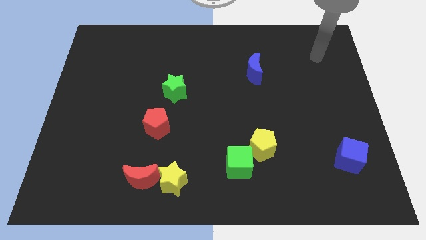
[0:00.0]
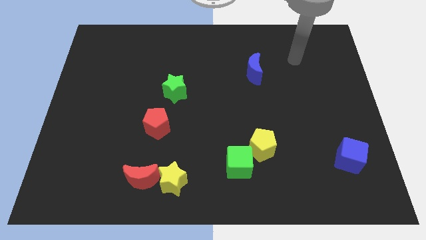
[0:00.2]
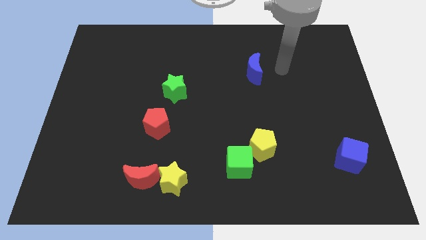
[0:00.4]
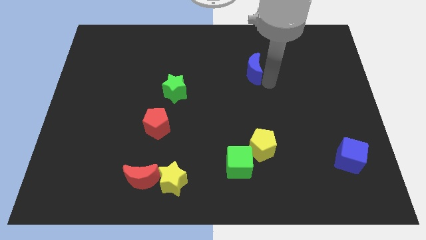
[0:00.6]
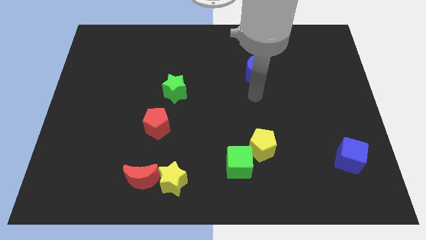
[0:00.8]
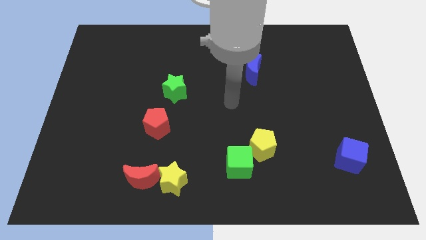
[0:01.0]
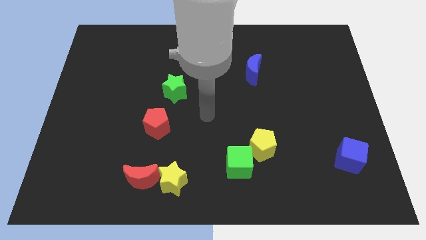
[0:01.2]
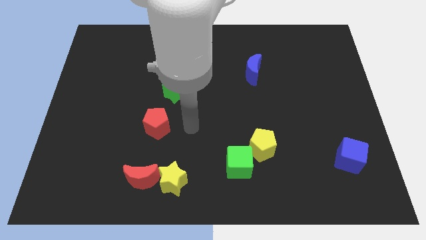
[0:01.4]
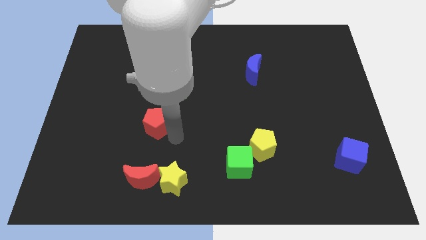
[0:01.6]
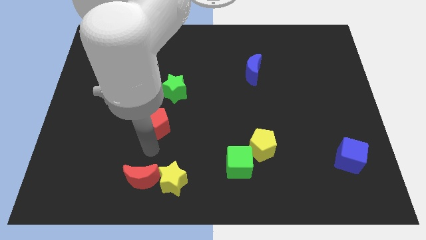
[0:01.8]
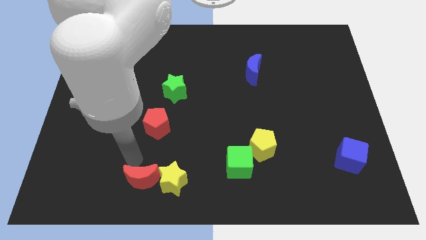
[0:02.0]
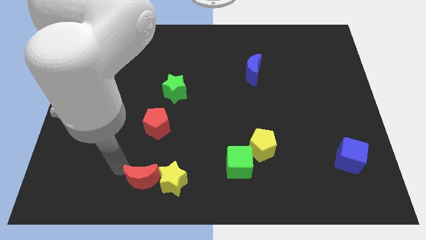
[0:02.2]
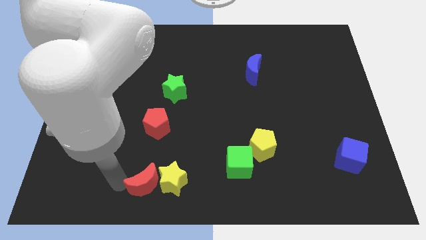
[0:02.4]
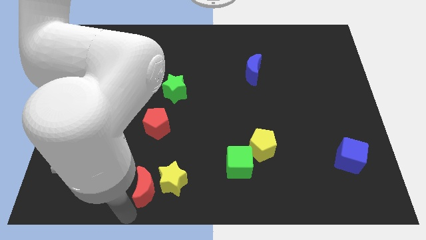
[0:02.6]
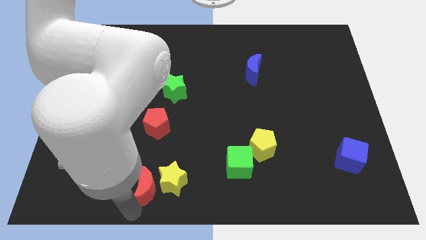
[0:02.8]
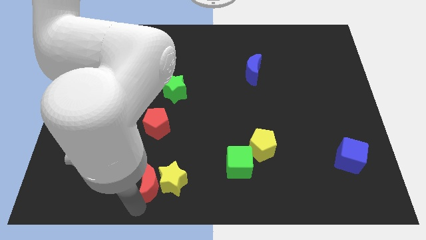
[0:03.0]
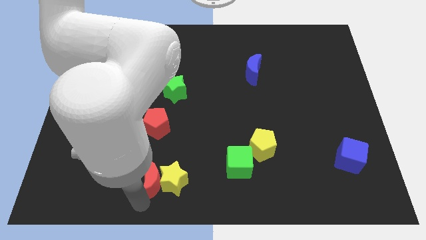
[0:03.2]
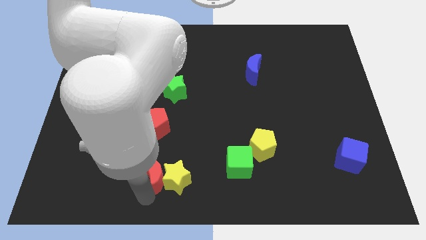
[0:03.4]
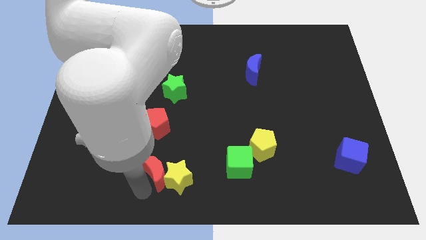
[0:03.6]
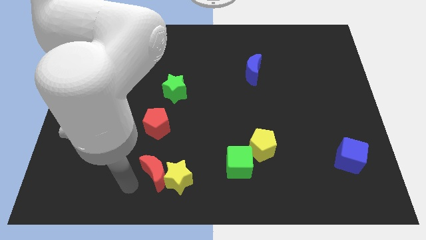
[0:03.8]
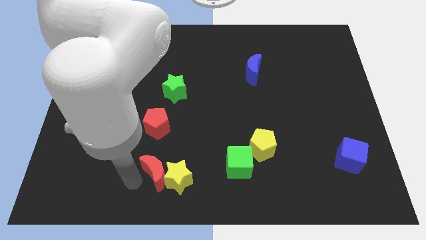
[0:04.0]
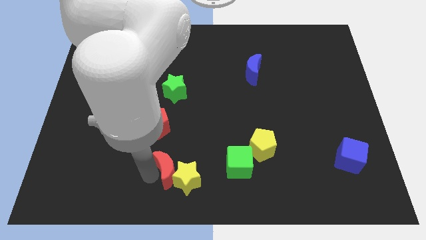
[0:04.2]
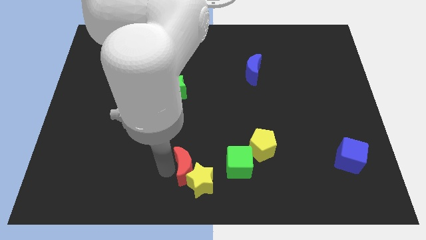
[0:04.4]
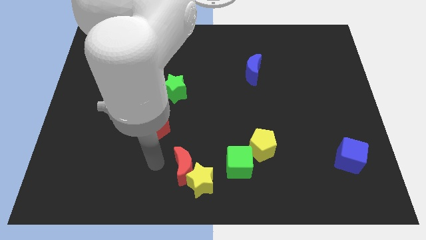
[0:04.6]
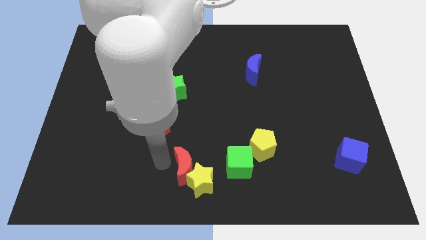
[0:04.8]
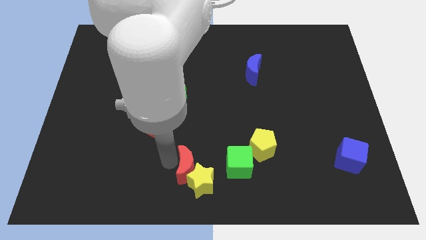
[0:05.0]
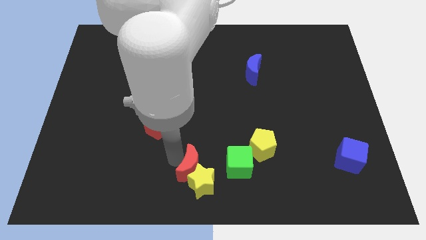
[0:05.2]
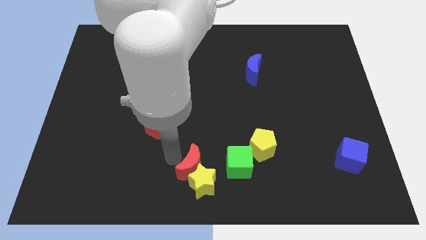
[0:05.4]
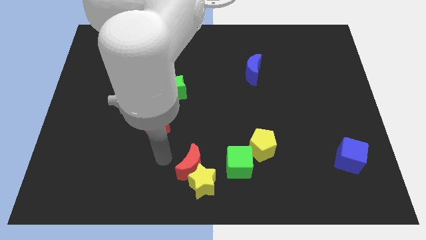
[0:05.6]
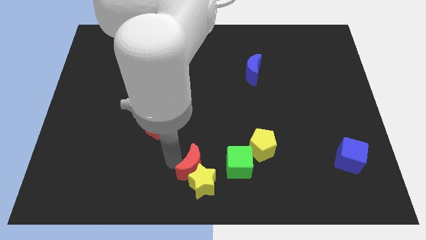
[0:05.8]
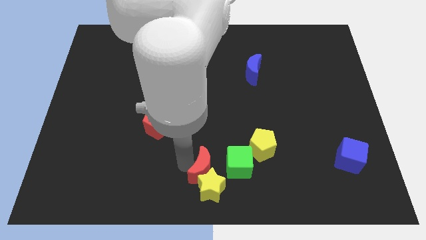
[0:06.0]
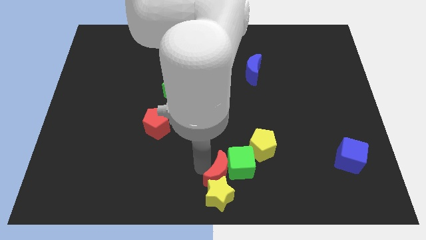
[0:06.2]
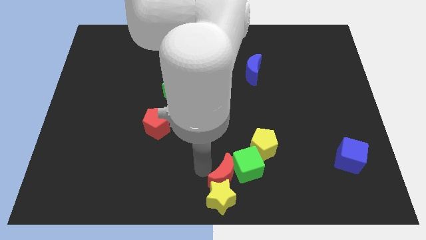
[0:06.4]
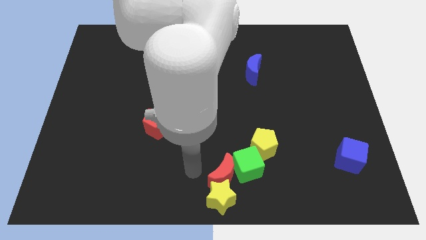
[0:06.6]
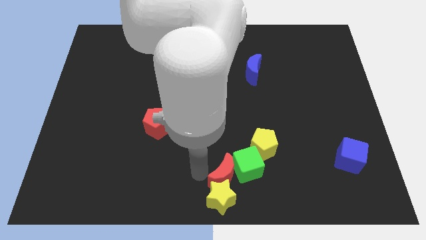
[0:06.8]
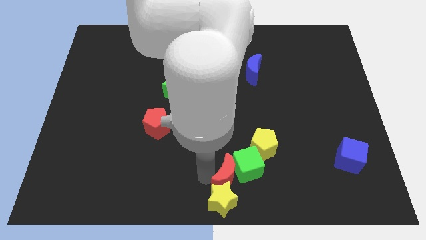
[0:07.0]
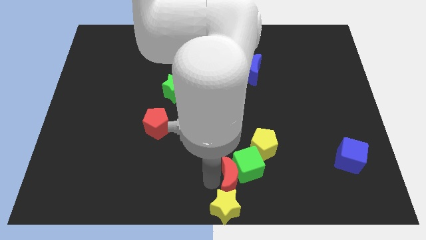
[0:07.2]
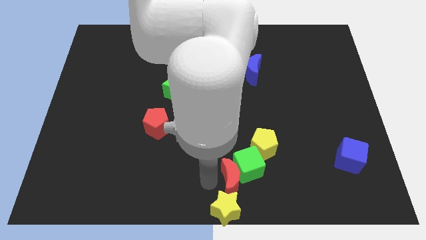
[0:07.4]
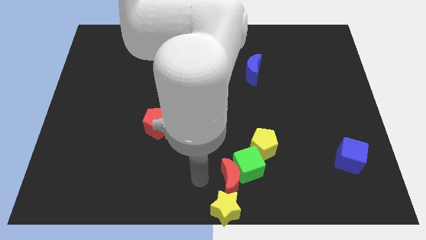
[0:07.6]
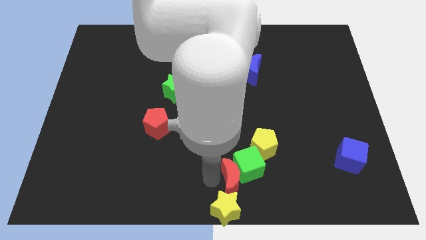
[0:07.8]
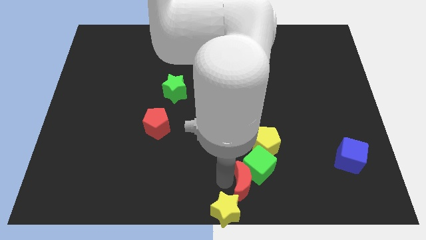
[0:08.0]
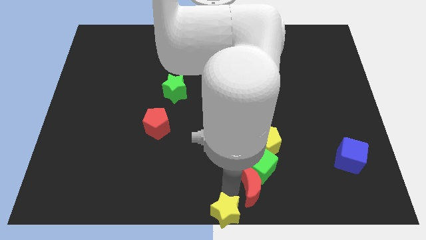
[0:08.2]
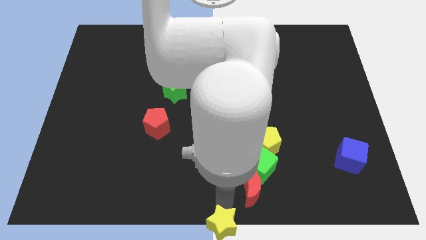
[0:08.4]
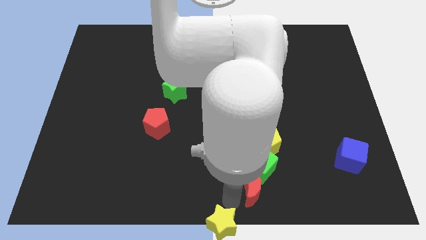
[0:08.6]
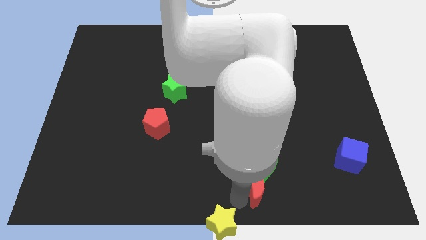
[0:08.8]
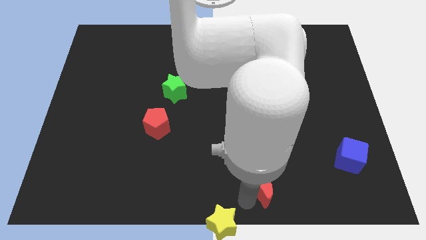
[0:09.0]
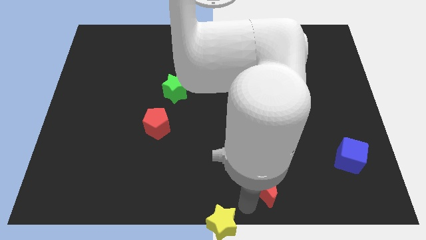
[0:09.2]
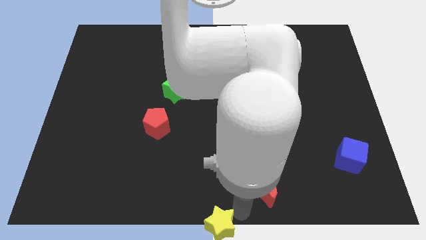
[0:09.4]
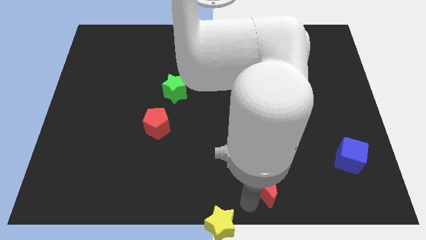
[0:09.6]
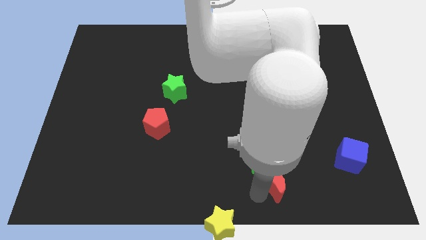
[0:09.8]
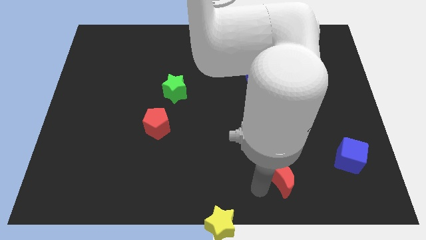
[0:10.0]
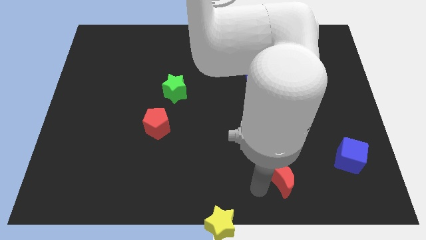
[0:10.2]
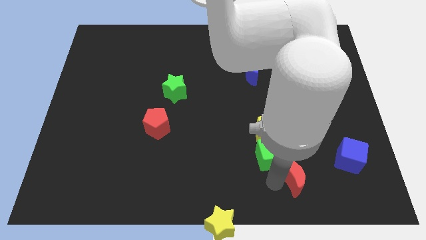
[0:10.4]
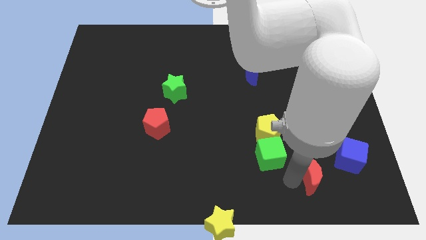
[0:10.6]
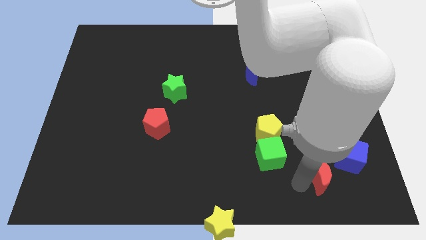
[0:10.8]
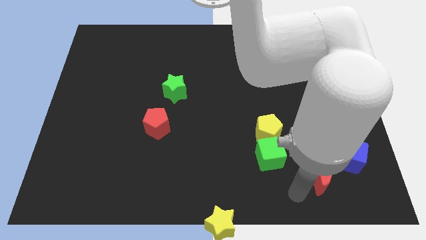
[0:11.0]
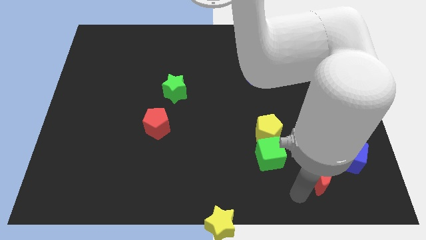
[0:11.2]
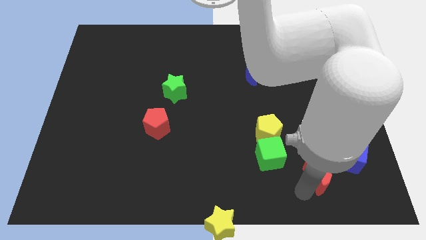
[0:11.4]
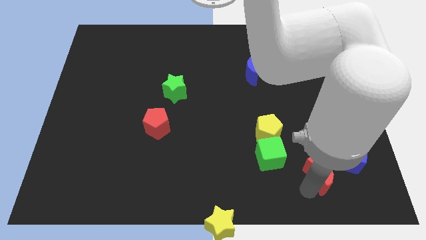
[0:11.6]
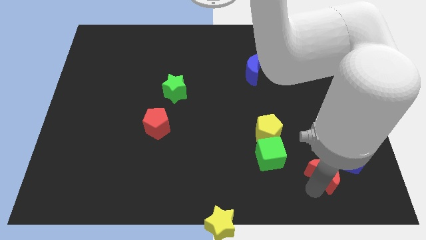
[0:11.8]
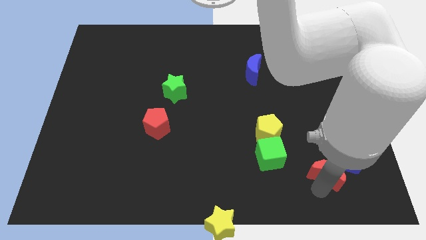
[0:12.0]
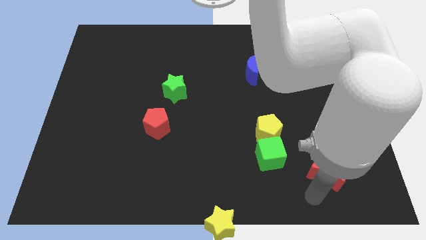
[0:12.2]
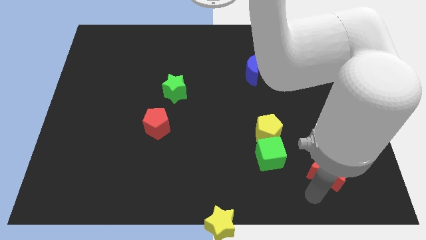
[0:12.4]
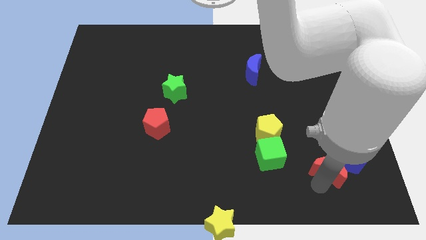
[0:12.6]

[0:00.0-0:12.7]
move the red moon to the blue cube
